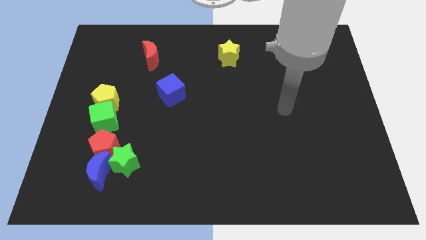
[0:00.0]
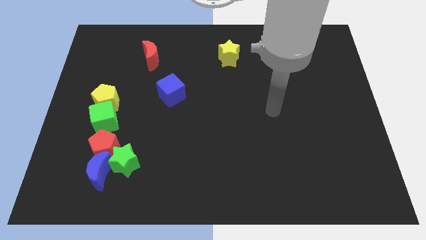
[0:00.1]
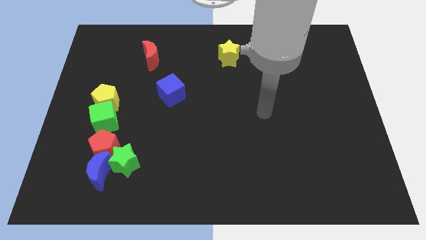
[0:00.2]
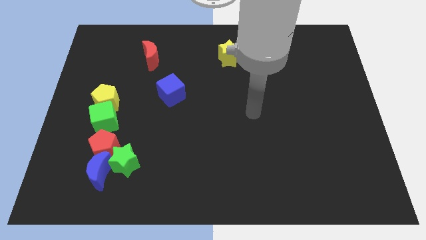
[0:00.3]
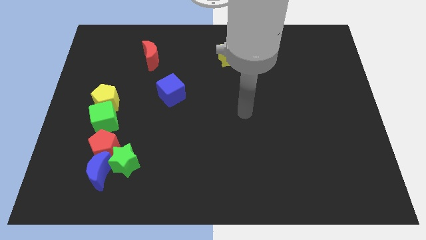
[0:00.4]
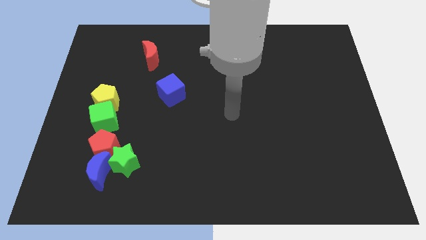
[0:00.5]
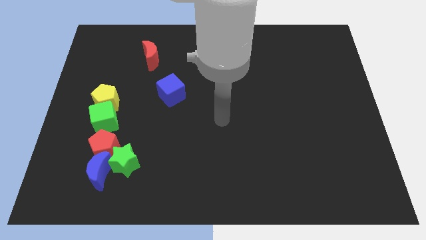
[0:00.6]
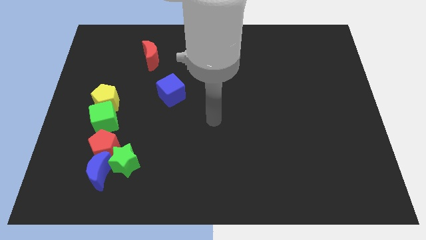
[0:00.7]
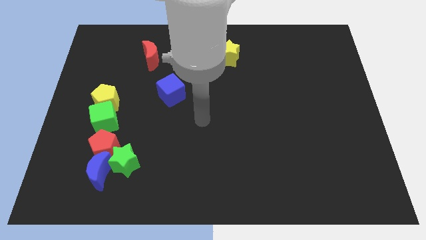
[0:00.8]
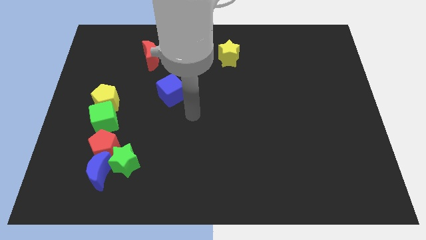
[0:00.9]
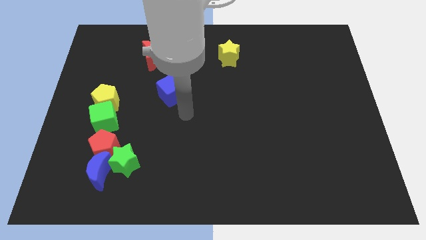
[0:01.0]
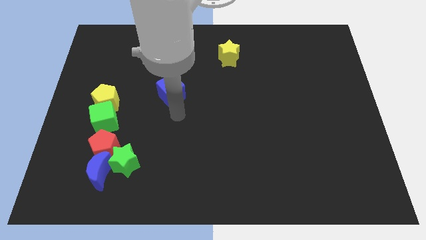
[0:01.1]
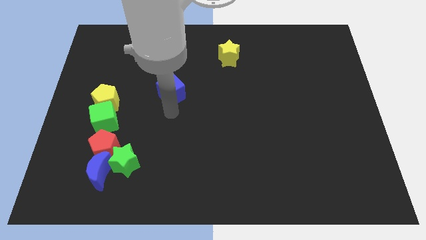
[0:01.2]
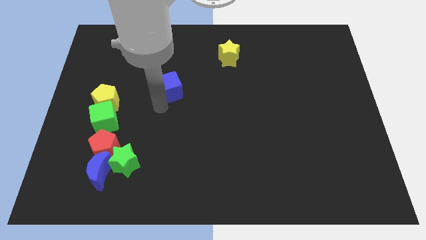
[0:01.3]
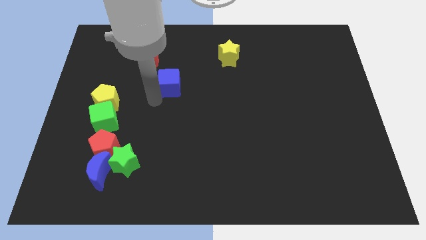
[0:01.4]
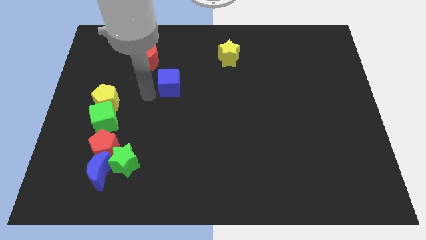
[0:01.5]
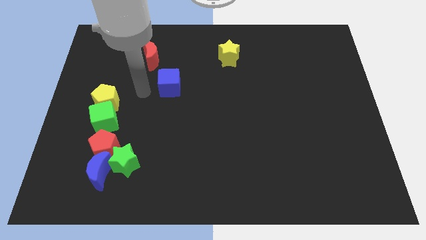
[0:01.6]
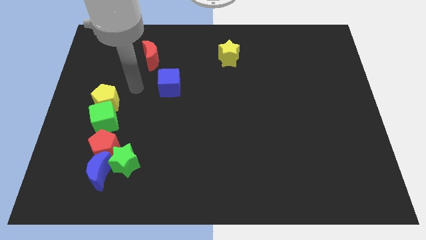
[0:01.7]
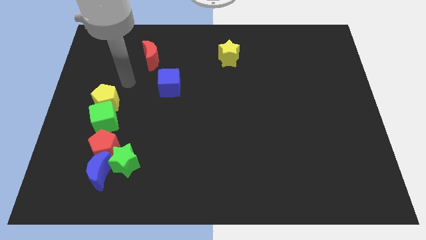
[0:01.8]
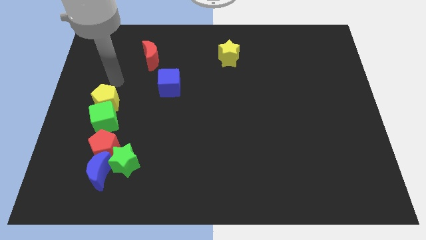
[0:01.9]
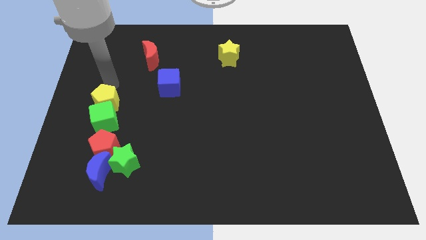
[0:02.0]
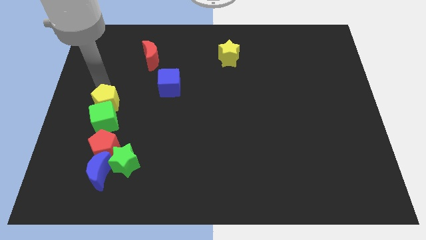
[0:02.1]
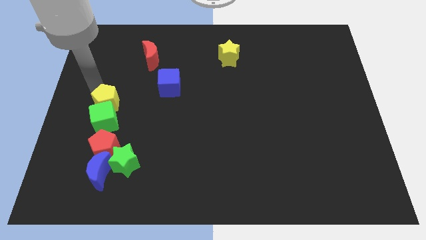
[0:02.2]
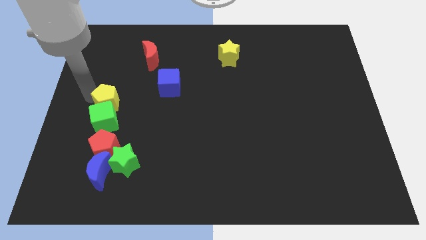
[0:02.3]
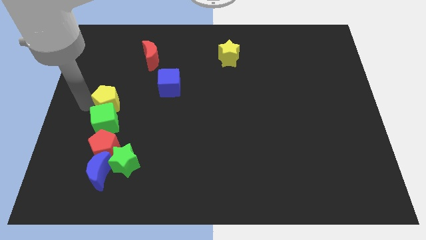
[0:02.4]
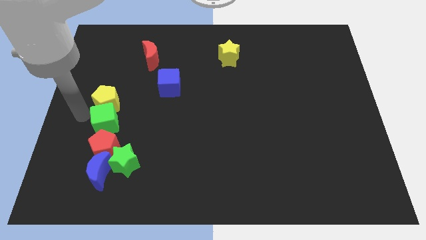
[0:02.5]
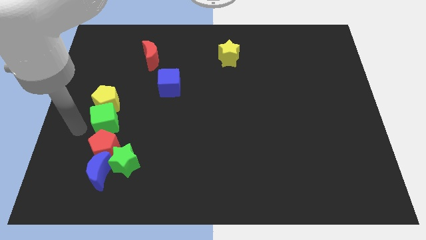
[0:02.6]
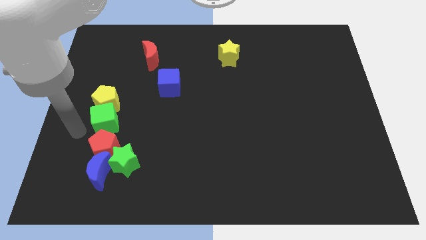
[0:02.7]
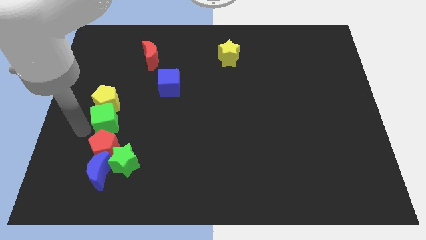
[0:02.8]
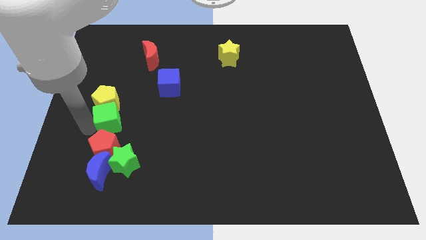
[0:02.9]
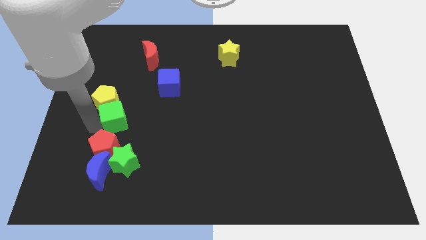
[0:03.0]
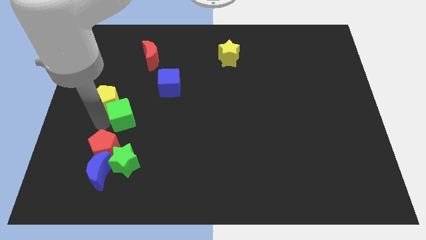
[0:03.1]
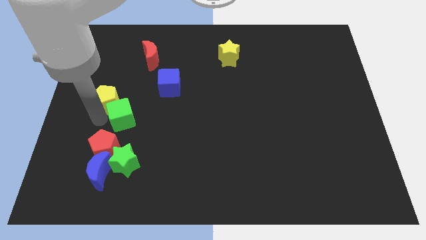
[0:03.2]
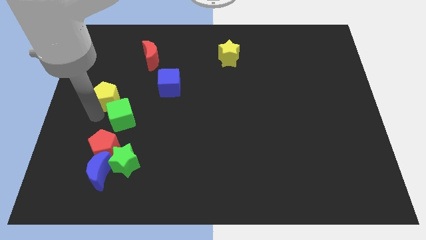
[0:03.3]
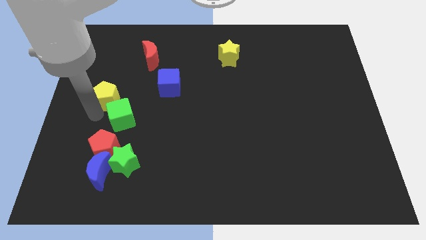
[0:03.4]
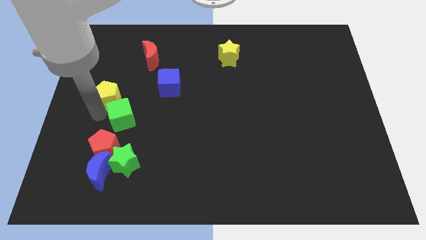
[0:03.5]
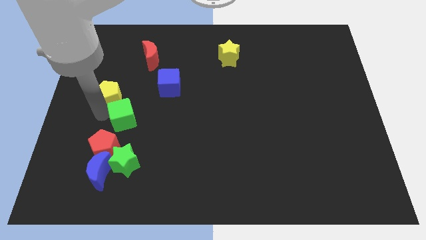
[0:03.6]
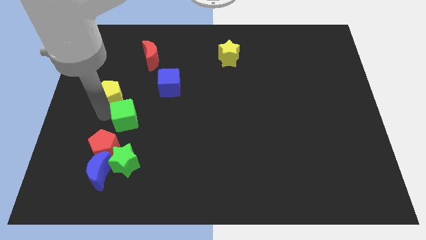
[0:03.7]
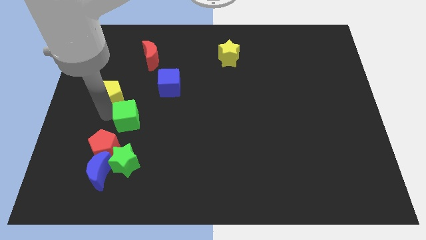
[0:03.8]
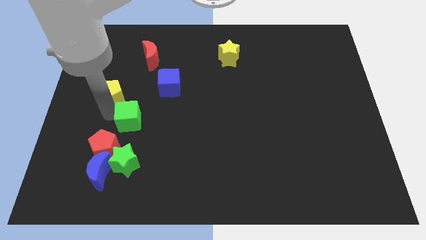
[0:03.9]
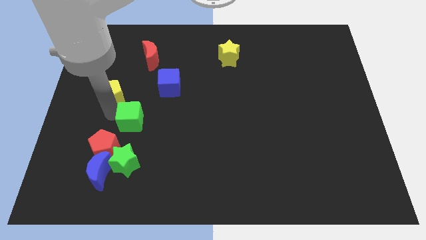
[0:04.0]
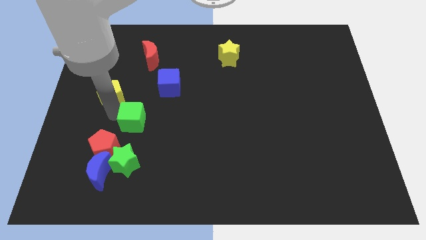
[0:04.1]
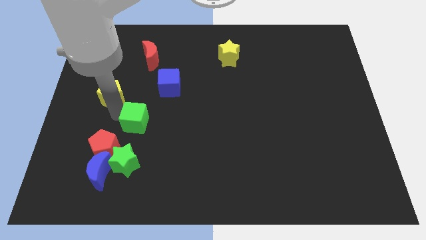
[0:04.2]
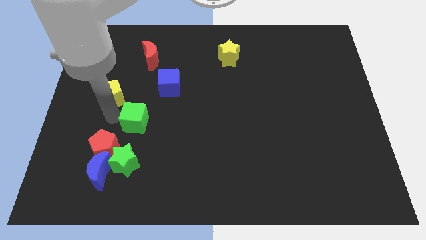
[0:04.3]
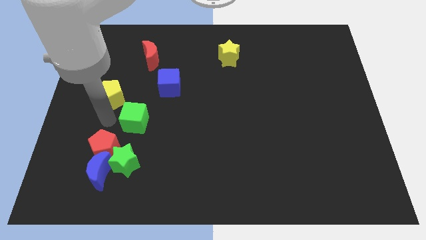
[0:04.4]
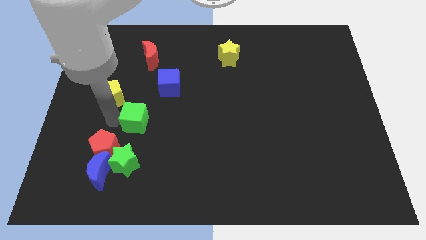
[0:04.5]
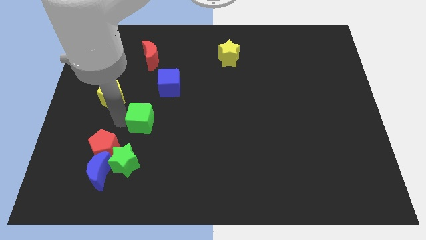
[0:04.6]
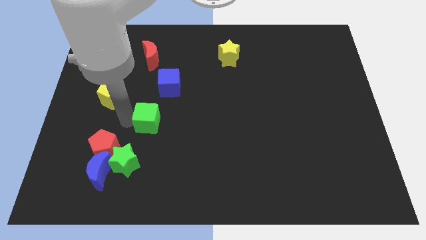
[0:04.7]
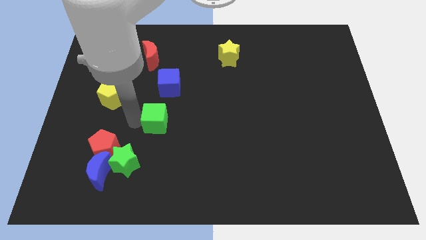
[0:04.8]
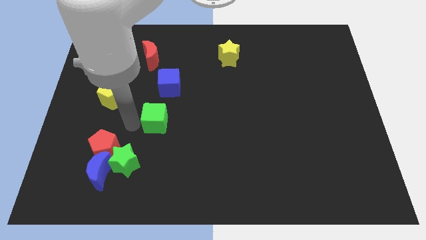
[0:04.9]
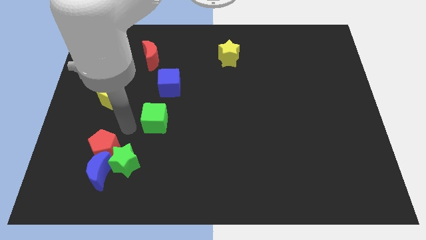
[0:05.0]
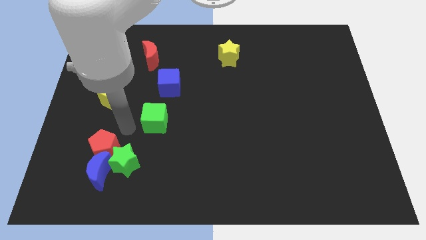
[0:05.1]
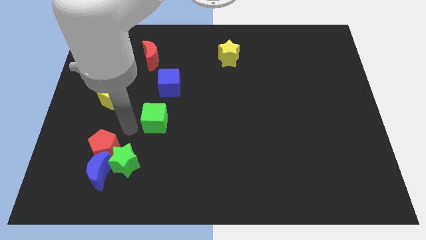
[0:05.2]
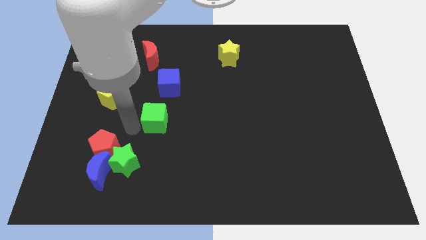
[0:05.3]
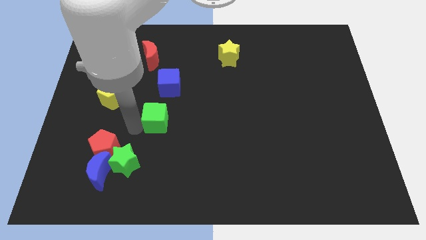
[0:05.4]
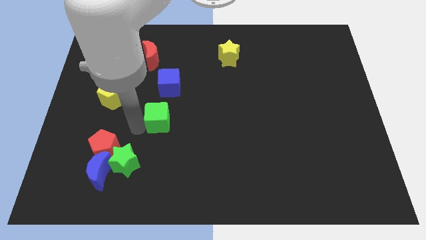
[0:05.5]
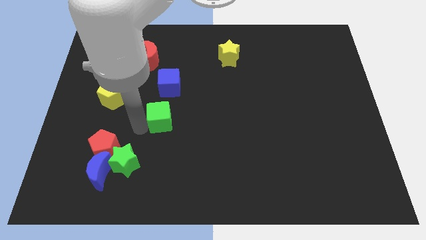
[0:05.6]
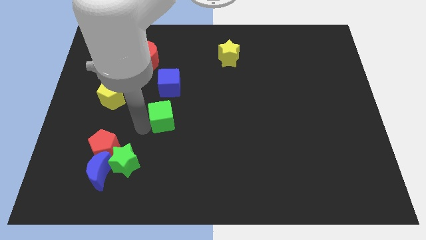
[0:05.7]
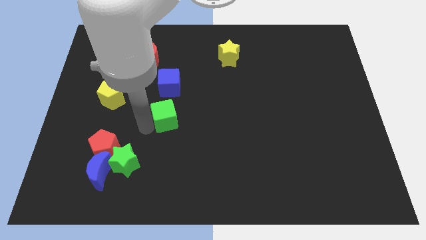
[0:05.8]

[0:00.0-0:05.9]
move the green cube to the middle of the board

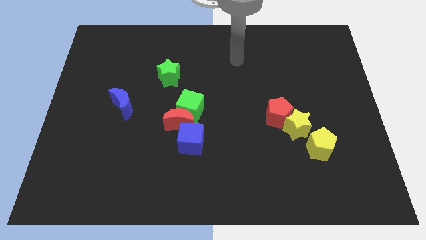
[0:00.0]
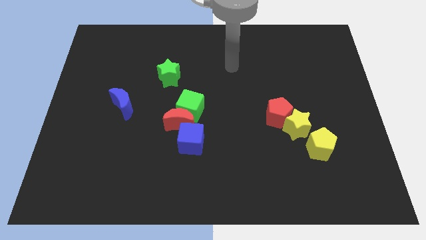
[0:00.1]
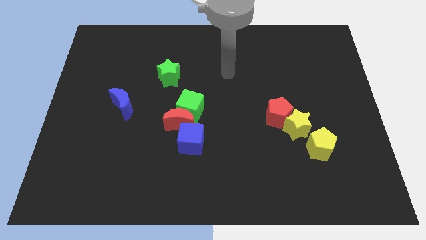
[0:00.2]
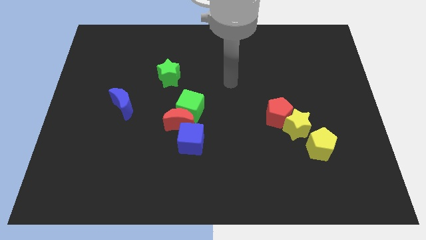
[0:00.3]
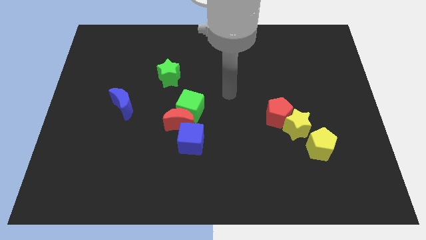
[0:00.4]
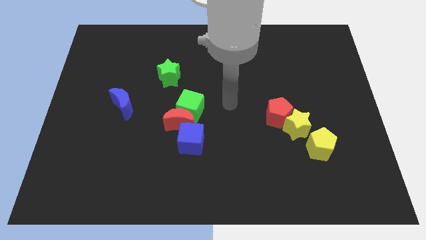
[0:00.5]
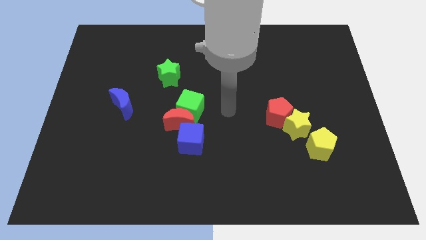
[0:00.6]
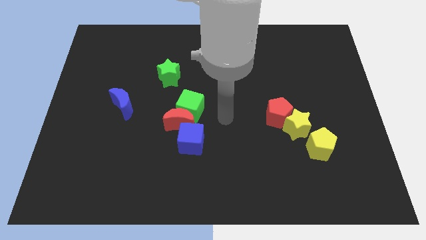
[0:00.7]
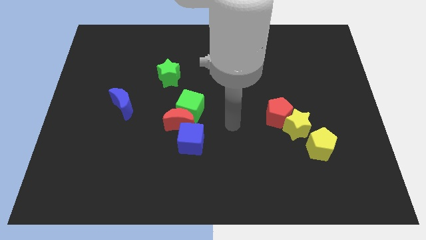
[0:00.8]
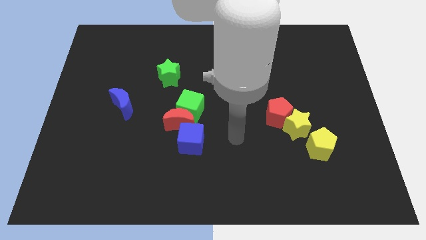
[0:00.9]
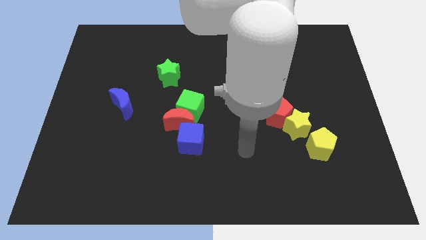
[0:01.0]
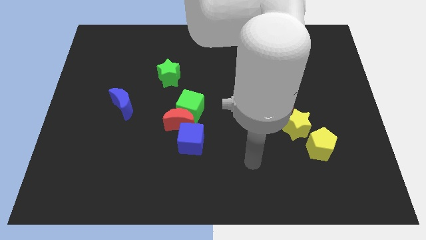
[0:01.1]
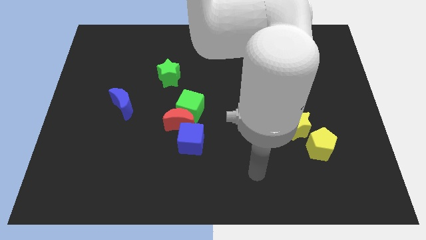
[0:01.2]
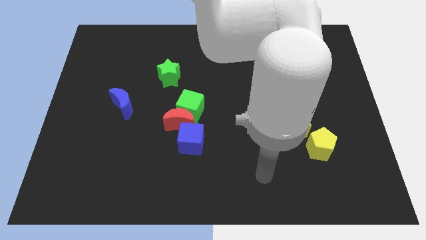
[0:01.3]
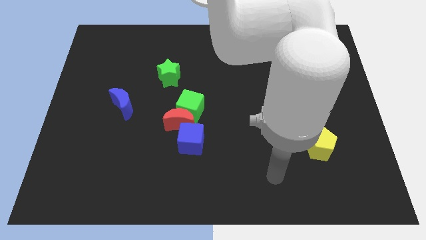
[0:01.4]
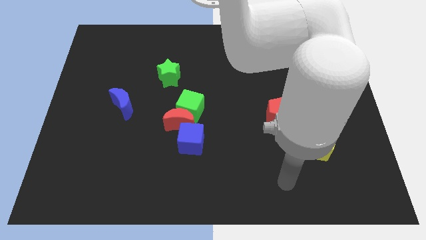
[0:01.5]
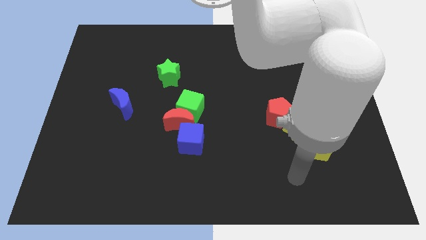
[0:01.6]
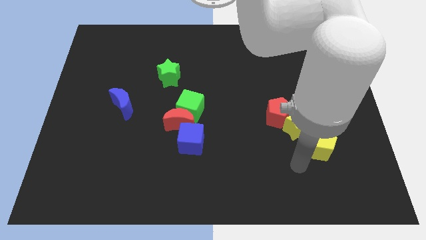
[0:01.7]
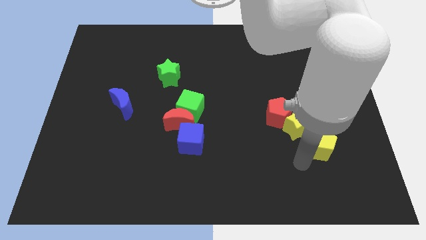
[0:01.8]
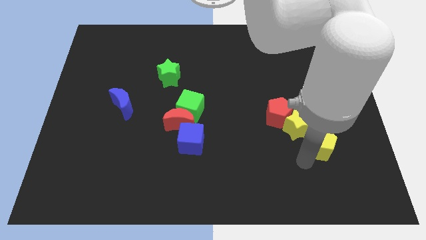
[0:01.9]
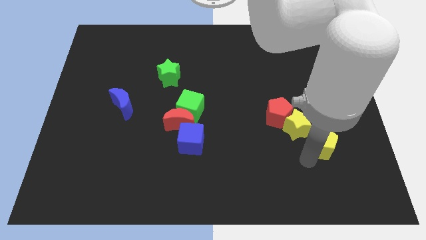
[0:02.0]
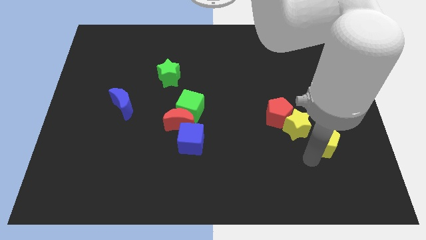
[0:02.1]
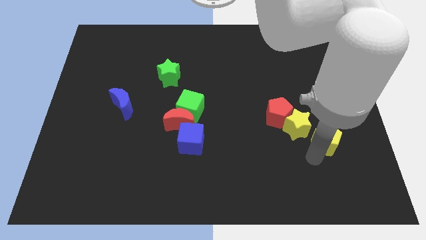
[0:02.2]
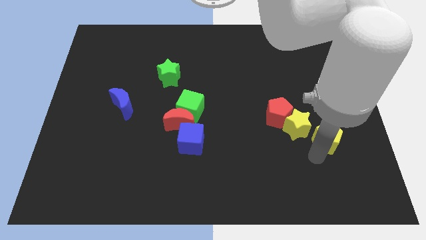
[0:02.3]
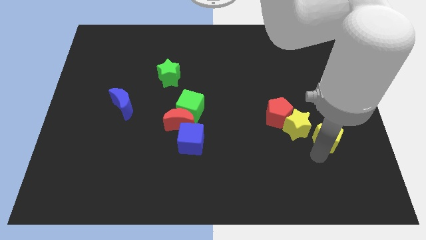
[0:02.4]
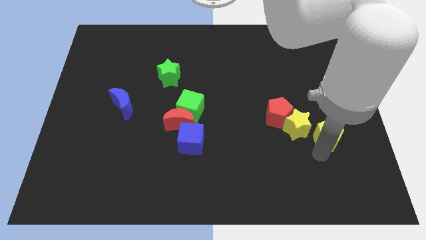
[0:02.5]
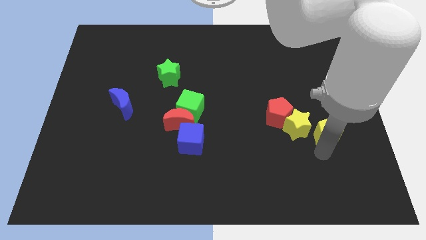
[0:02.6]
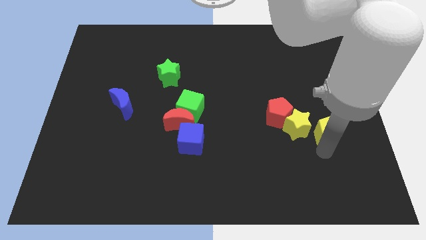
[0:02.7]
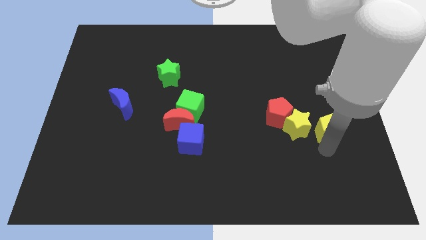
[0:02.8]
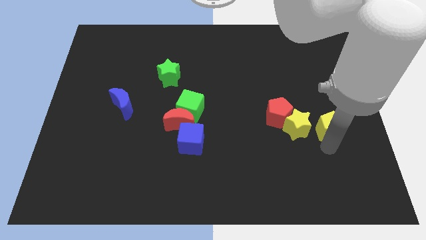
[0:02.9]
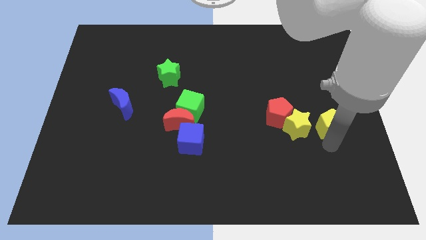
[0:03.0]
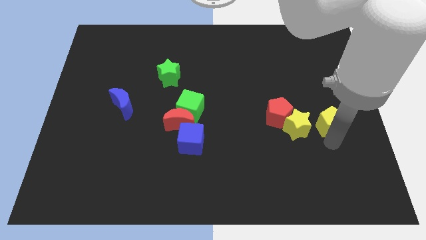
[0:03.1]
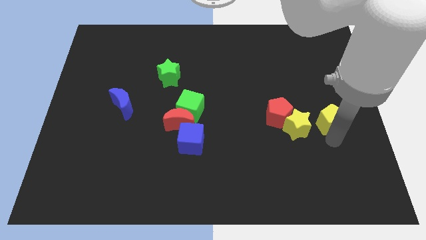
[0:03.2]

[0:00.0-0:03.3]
slide the yellow pentagon to the right side
